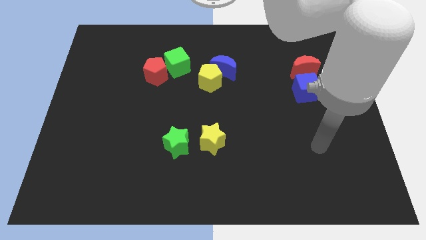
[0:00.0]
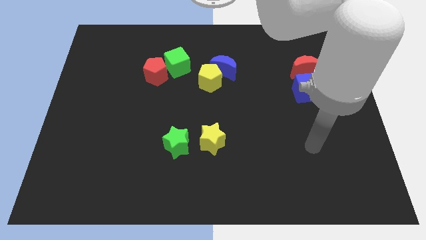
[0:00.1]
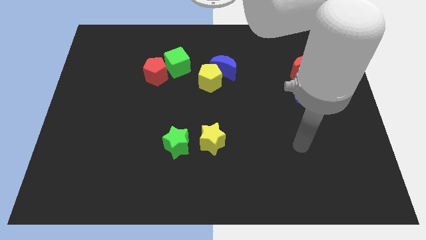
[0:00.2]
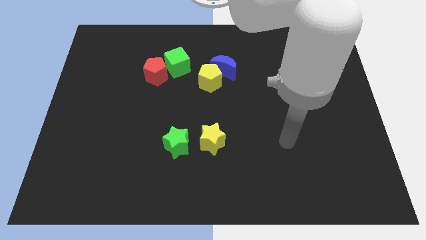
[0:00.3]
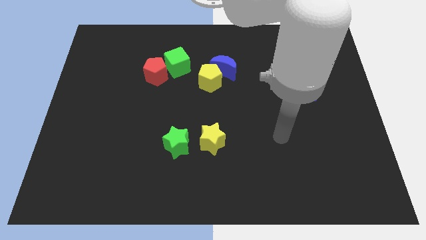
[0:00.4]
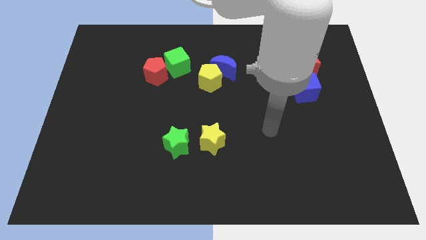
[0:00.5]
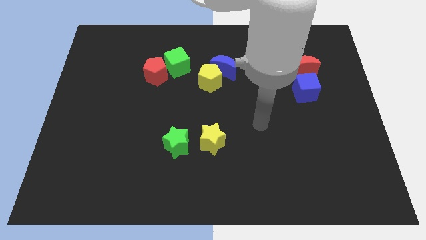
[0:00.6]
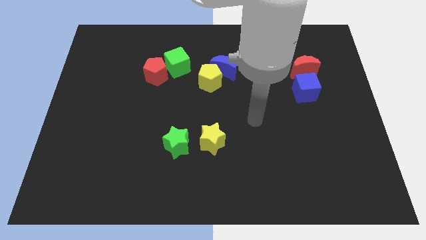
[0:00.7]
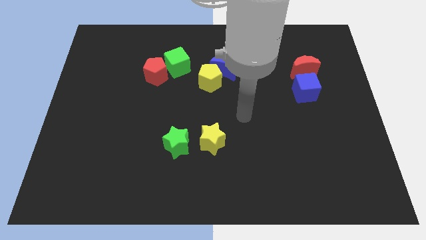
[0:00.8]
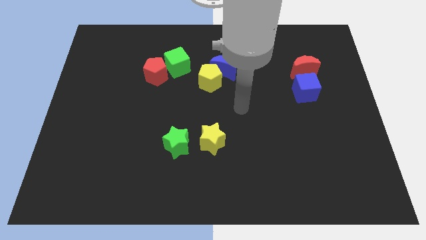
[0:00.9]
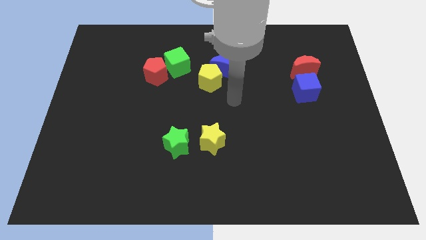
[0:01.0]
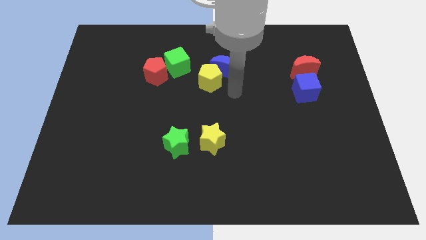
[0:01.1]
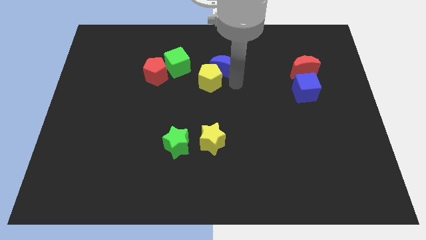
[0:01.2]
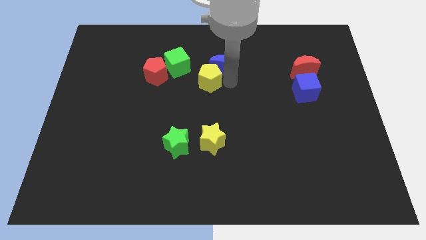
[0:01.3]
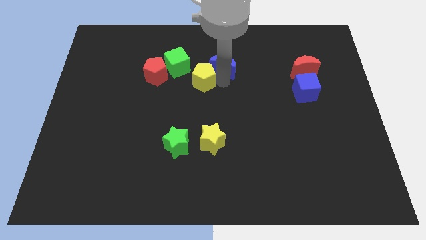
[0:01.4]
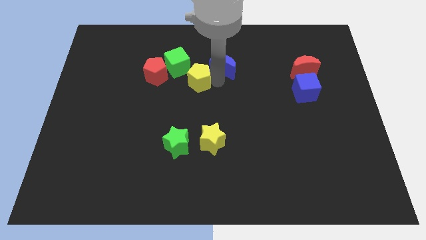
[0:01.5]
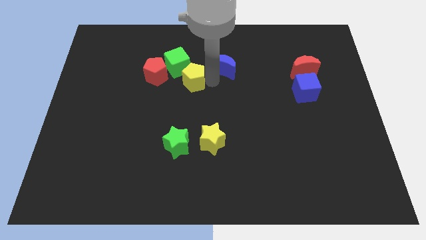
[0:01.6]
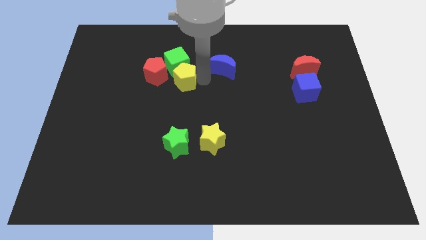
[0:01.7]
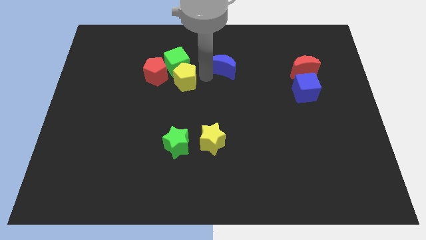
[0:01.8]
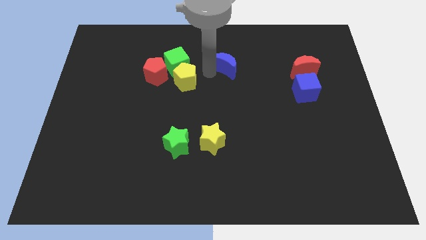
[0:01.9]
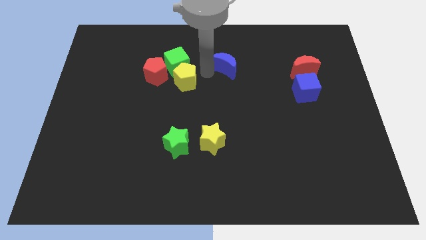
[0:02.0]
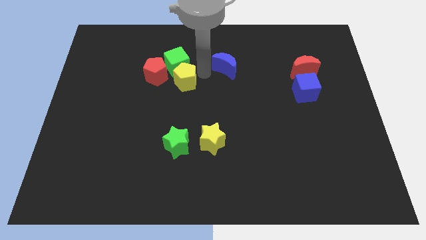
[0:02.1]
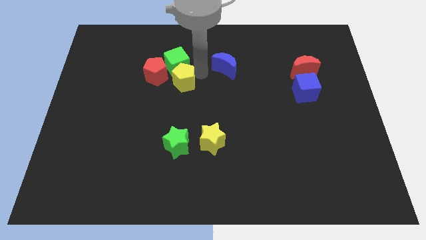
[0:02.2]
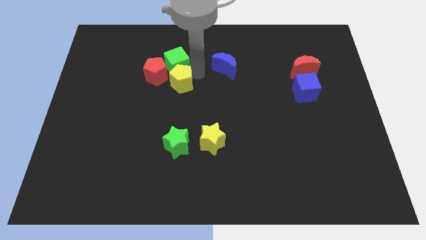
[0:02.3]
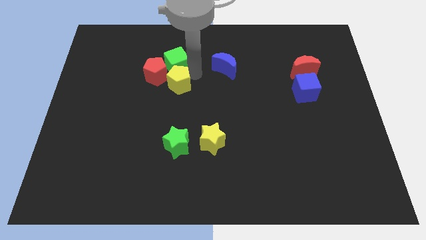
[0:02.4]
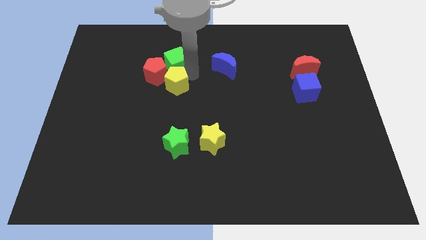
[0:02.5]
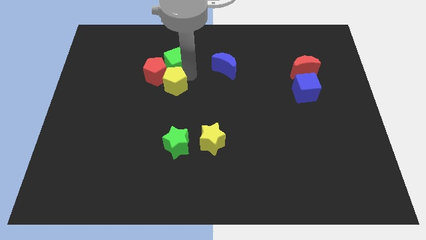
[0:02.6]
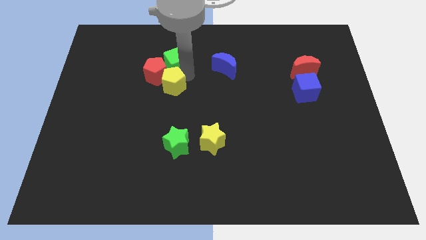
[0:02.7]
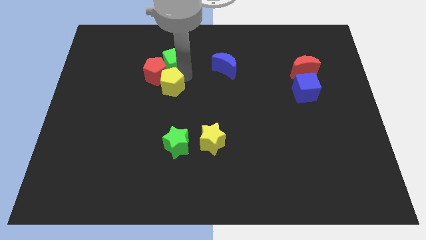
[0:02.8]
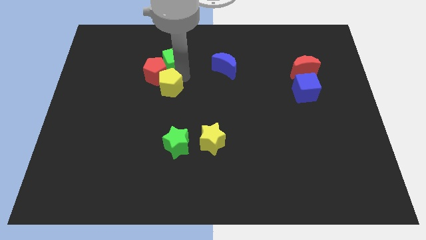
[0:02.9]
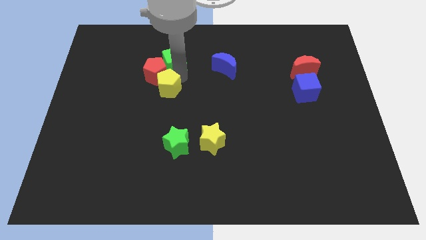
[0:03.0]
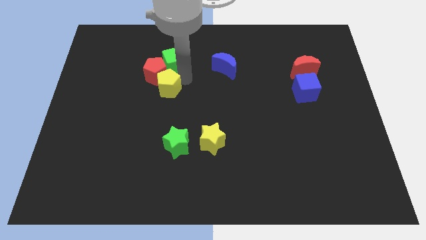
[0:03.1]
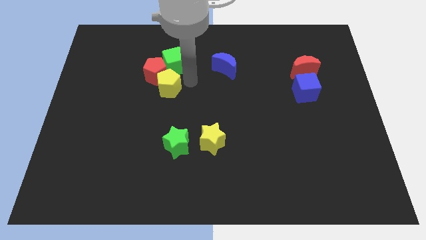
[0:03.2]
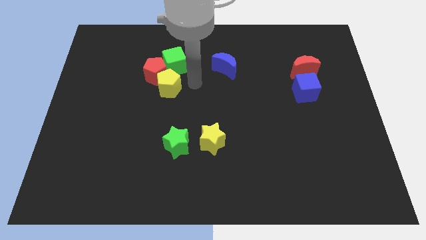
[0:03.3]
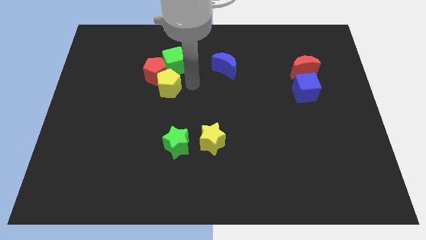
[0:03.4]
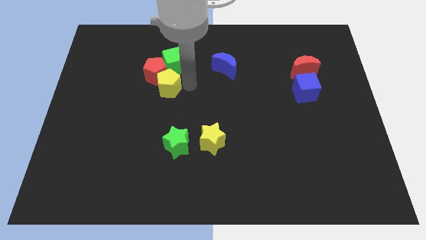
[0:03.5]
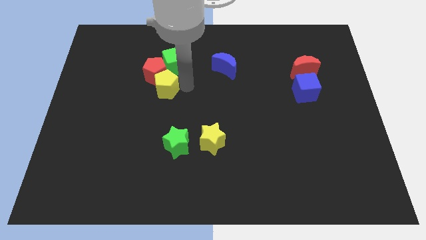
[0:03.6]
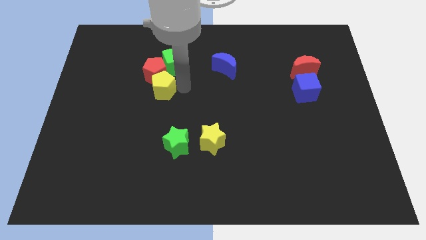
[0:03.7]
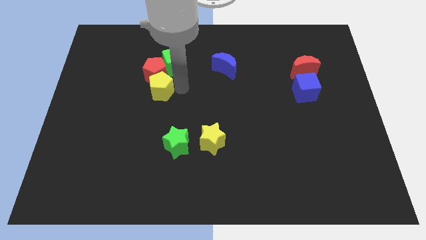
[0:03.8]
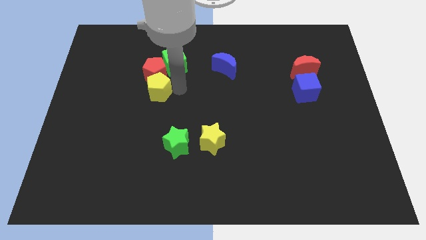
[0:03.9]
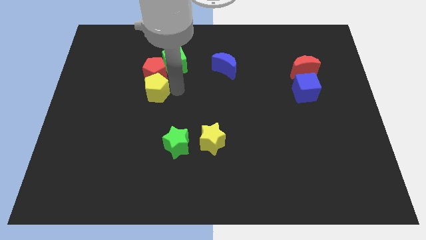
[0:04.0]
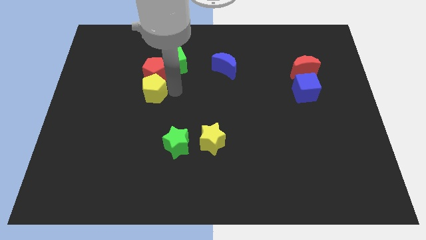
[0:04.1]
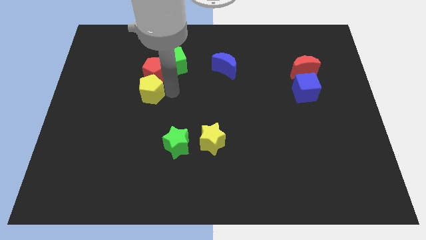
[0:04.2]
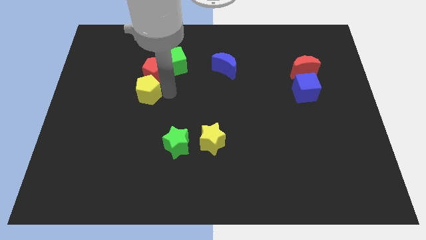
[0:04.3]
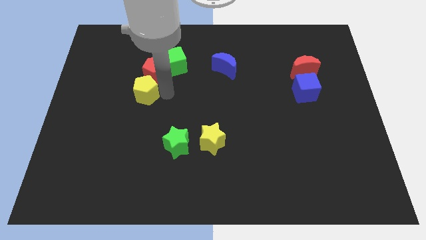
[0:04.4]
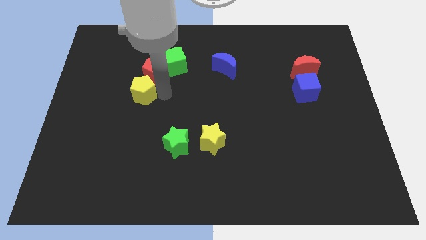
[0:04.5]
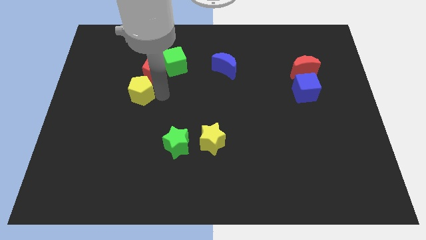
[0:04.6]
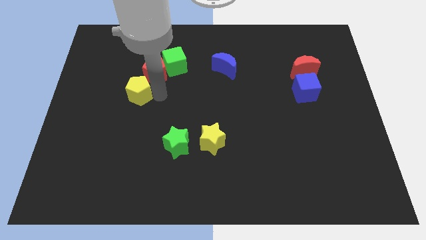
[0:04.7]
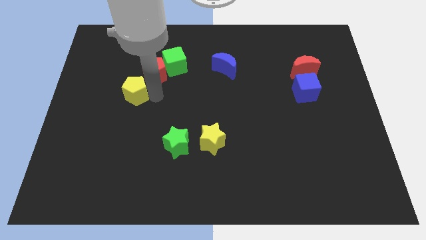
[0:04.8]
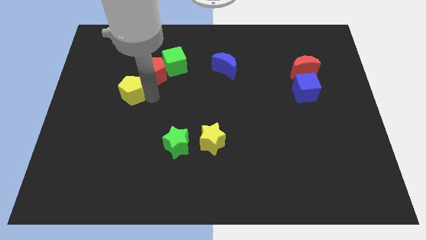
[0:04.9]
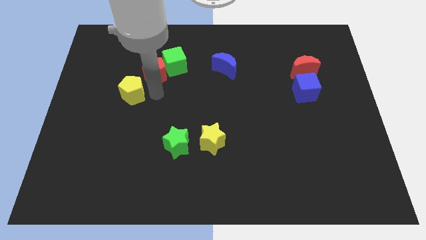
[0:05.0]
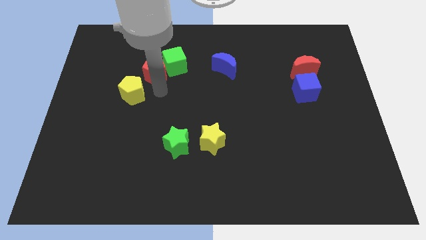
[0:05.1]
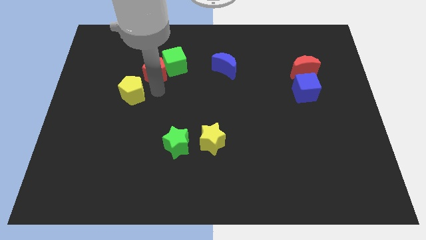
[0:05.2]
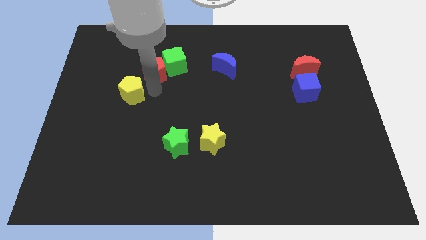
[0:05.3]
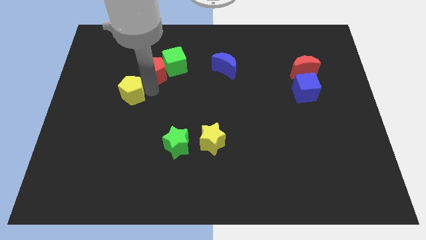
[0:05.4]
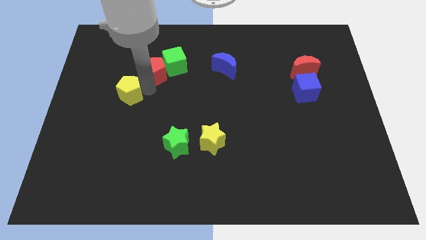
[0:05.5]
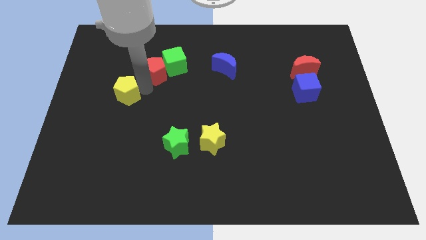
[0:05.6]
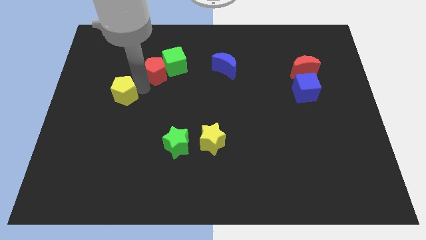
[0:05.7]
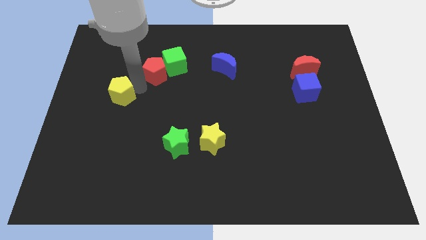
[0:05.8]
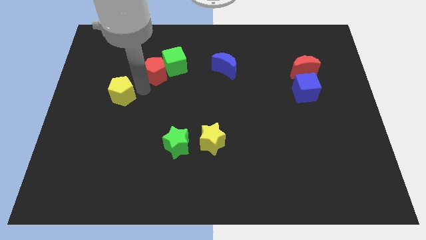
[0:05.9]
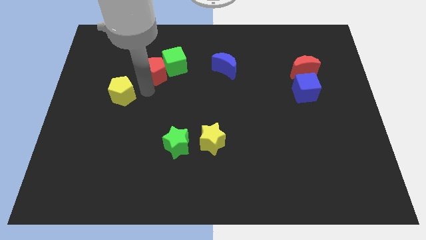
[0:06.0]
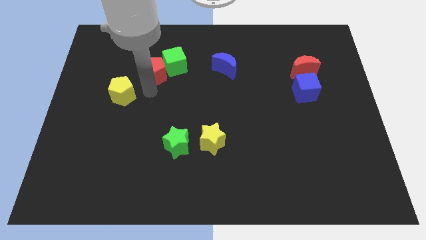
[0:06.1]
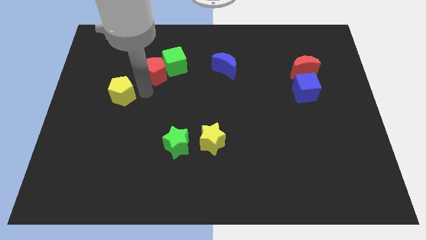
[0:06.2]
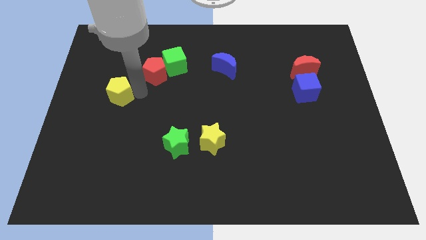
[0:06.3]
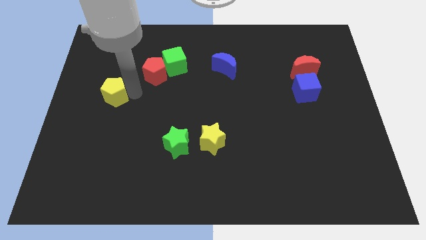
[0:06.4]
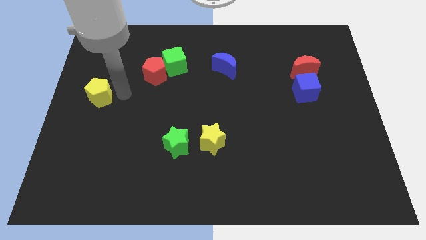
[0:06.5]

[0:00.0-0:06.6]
move the yellow pentagon to the left side

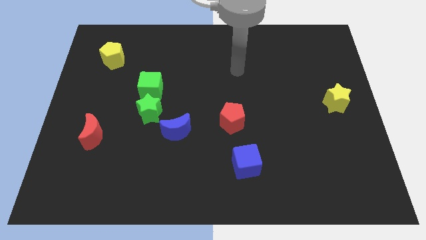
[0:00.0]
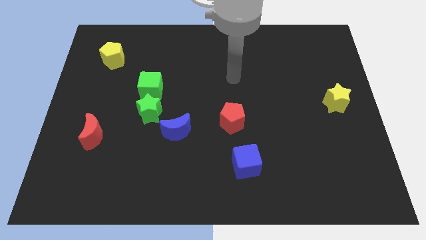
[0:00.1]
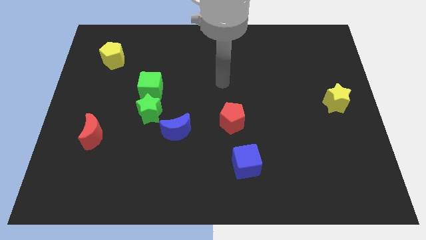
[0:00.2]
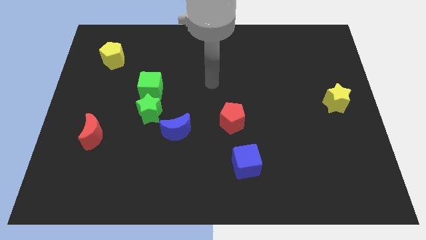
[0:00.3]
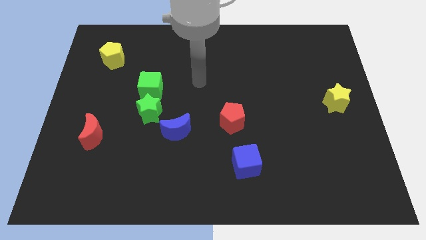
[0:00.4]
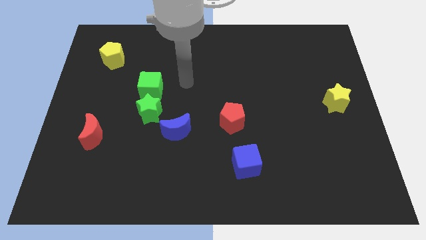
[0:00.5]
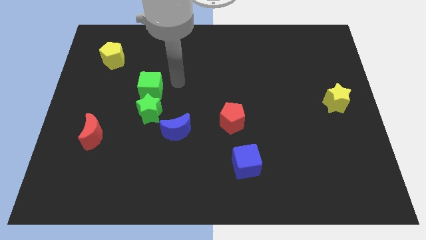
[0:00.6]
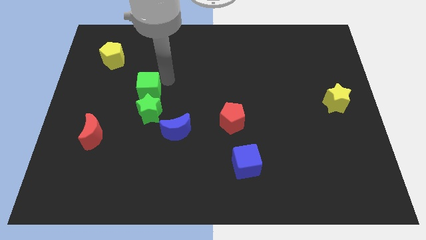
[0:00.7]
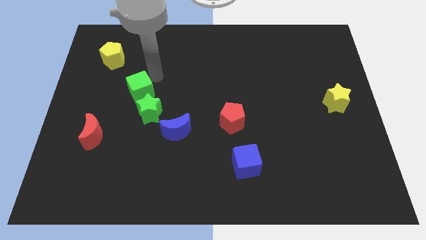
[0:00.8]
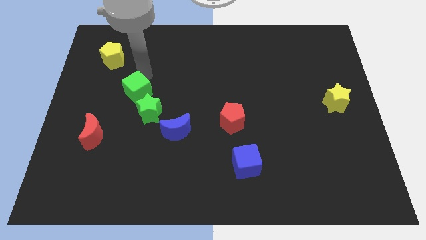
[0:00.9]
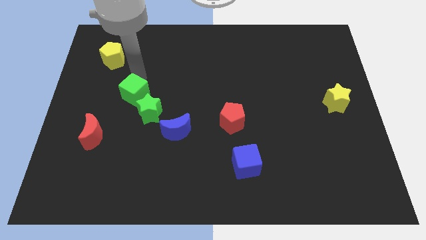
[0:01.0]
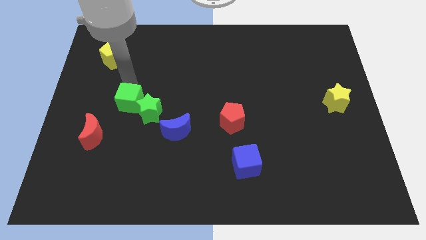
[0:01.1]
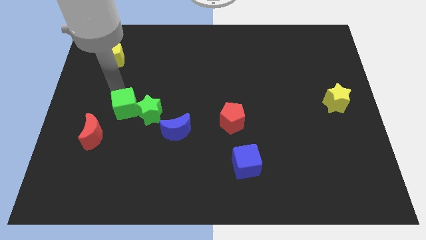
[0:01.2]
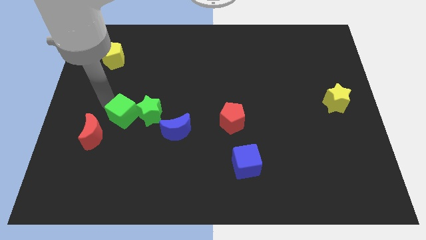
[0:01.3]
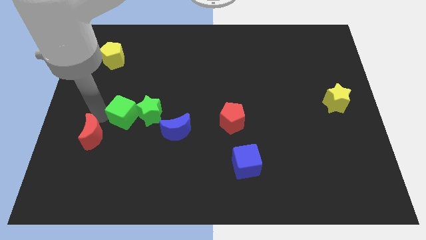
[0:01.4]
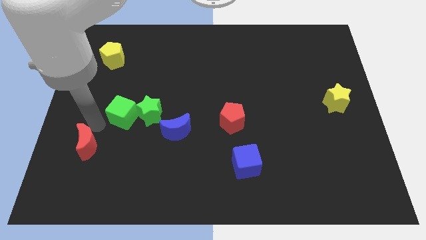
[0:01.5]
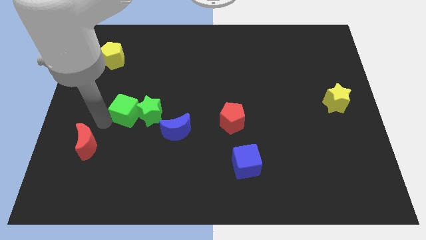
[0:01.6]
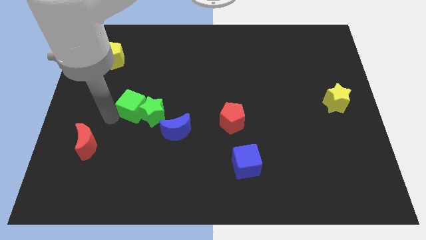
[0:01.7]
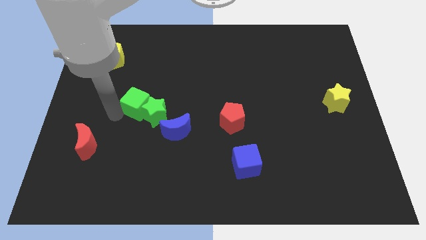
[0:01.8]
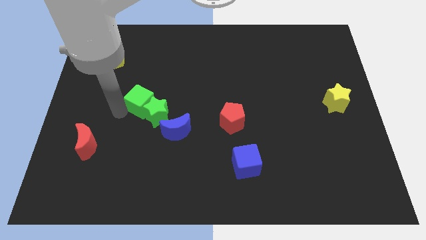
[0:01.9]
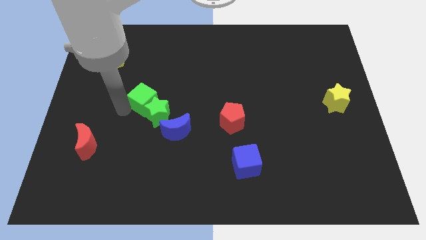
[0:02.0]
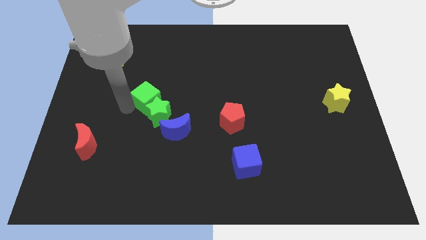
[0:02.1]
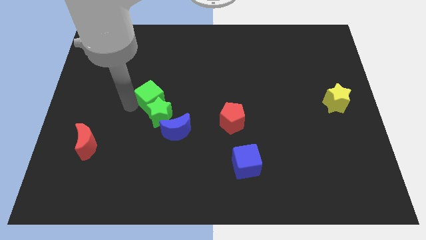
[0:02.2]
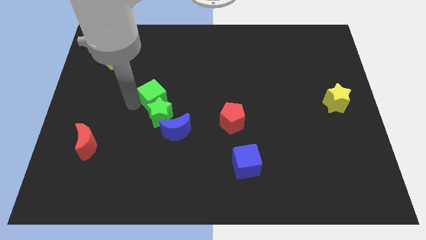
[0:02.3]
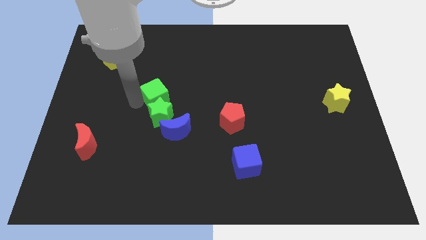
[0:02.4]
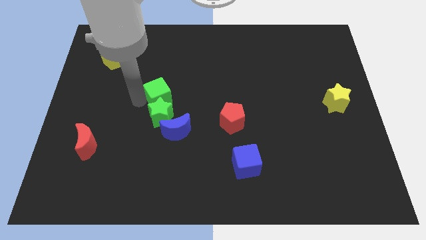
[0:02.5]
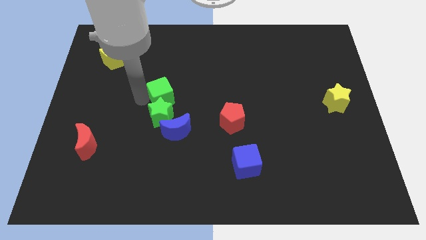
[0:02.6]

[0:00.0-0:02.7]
move the green cube to the middle of the board
